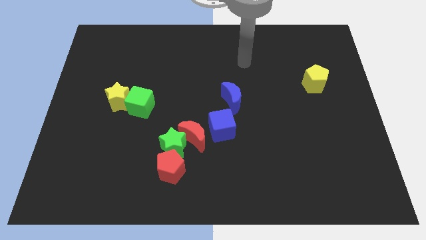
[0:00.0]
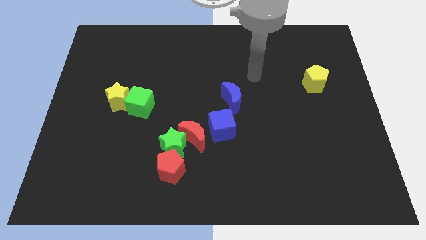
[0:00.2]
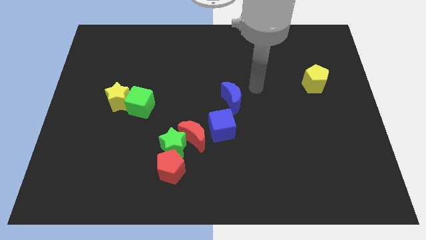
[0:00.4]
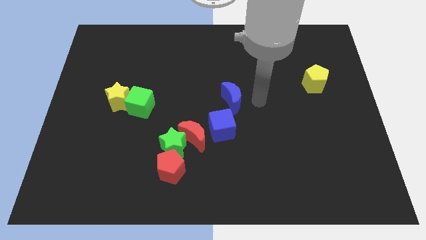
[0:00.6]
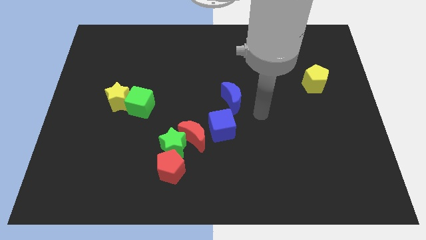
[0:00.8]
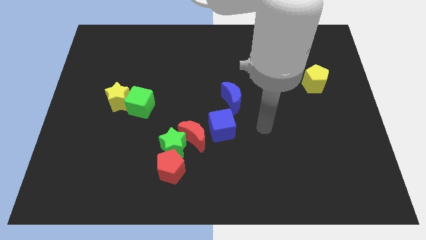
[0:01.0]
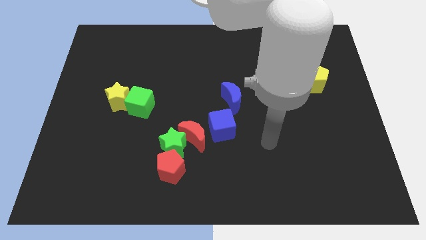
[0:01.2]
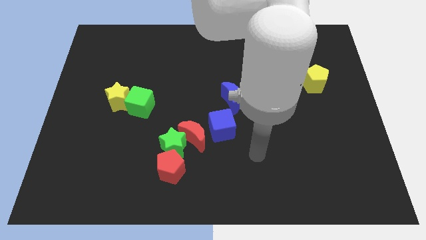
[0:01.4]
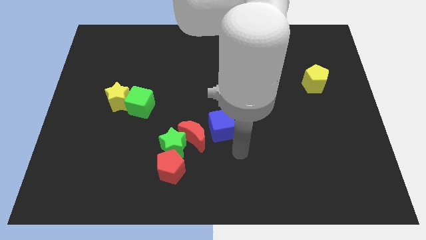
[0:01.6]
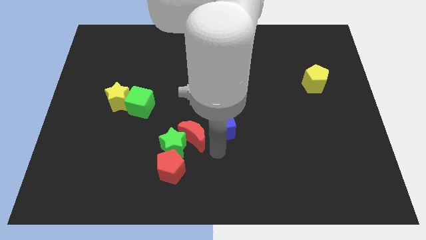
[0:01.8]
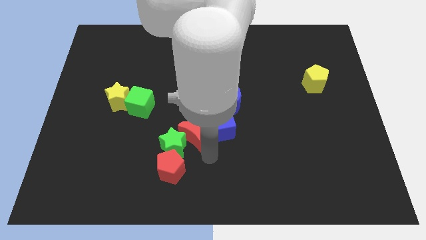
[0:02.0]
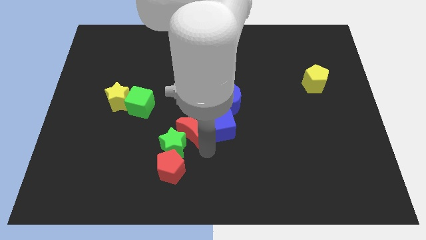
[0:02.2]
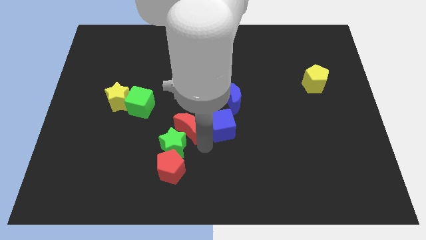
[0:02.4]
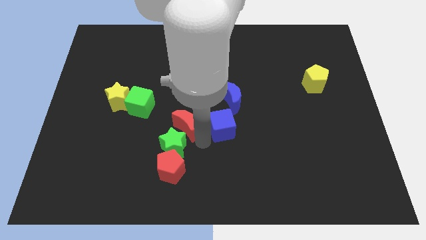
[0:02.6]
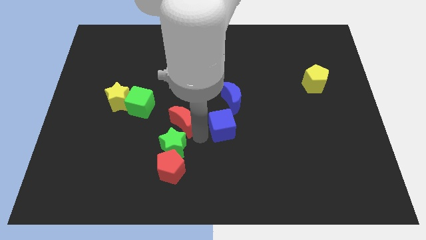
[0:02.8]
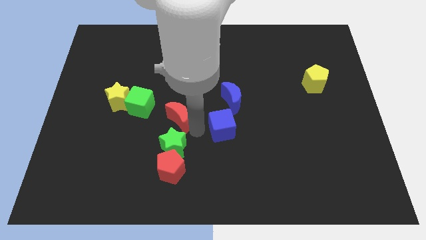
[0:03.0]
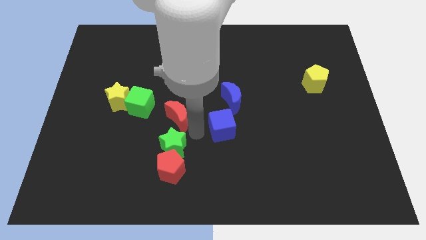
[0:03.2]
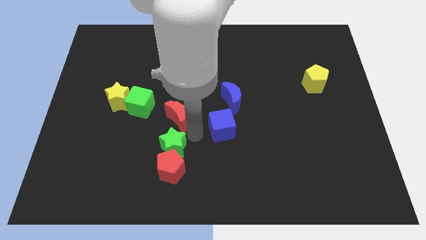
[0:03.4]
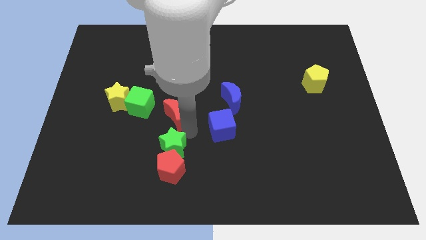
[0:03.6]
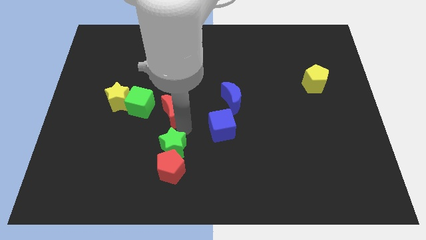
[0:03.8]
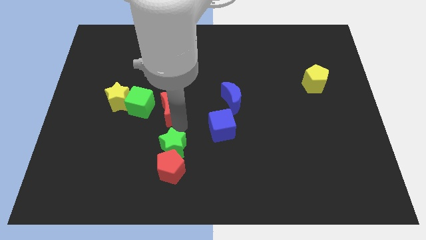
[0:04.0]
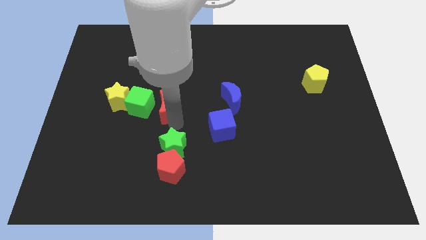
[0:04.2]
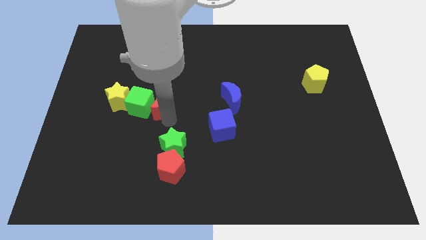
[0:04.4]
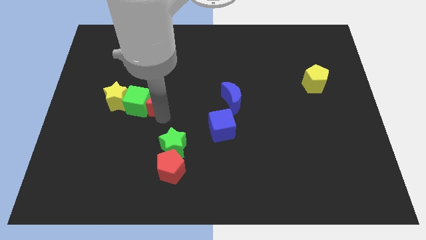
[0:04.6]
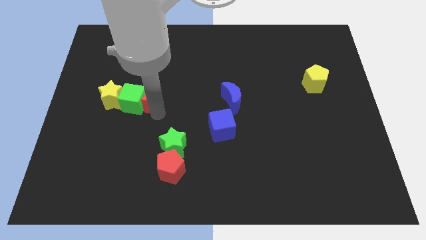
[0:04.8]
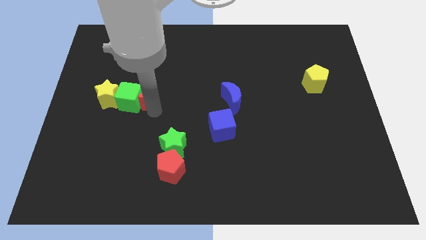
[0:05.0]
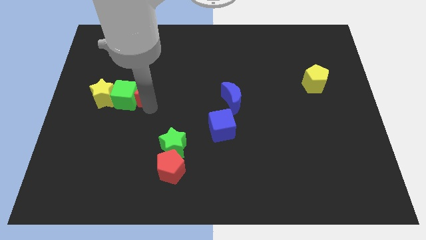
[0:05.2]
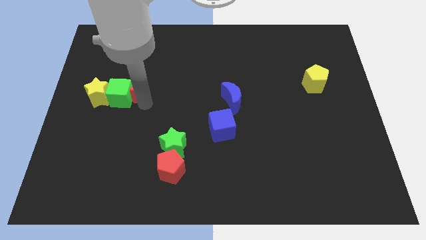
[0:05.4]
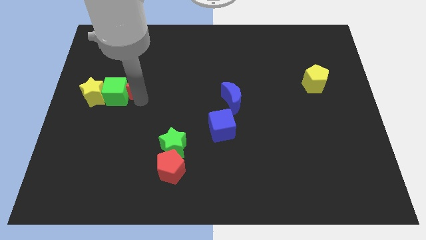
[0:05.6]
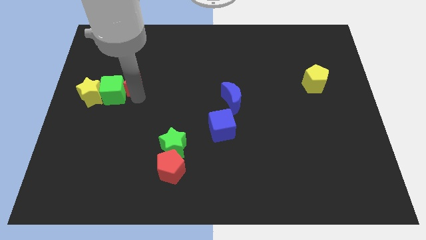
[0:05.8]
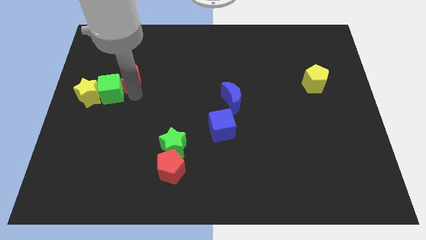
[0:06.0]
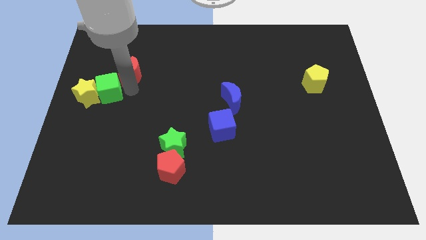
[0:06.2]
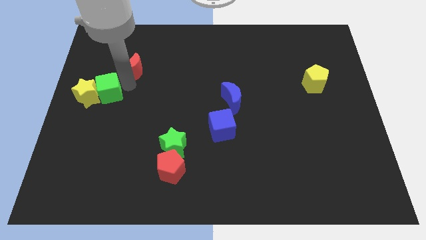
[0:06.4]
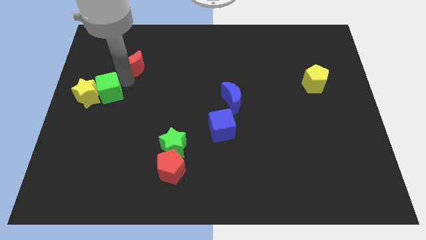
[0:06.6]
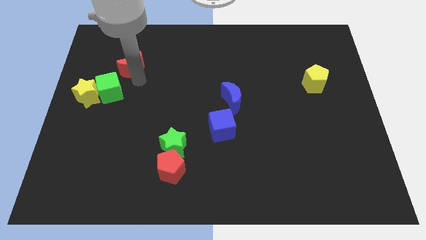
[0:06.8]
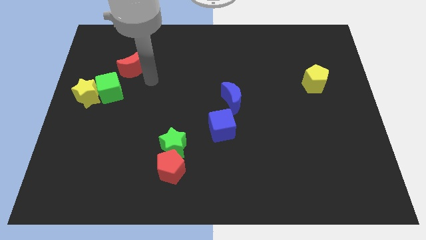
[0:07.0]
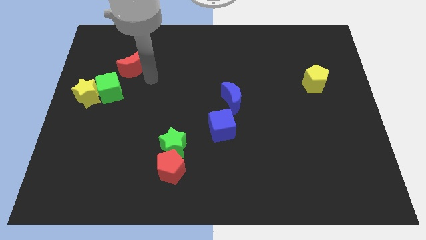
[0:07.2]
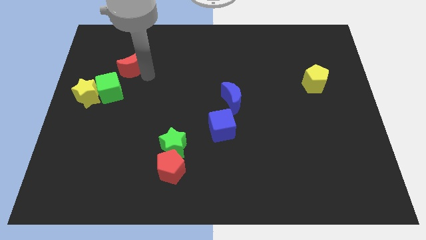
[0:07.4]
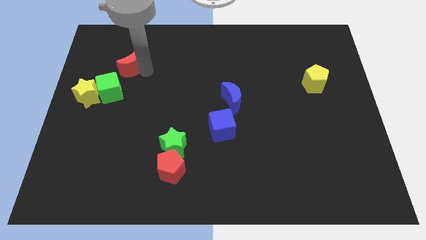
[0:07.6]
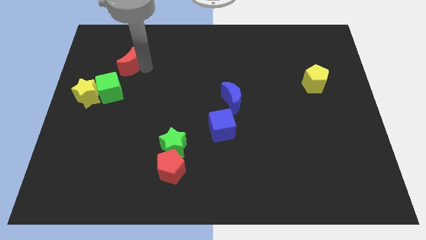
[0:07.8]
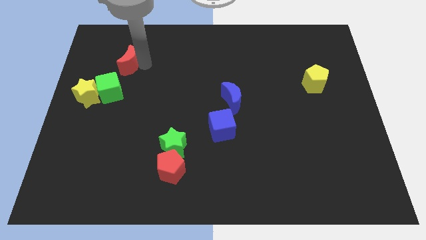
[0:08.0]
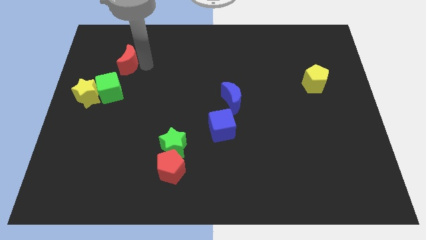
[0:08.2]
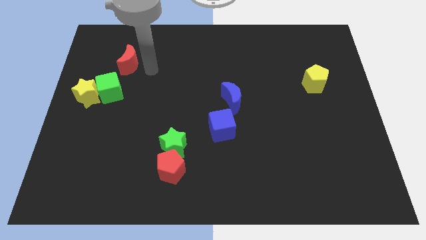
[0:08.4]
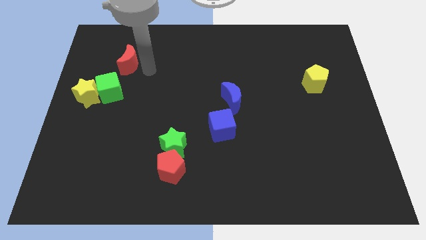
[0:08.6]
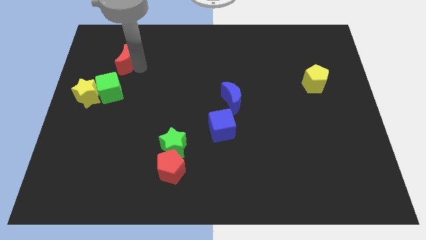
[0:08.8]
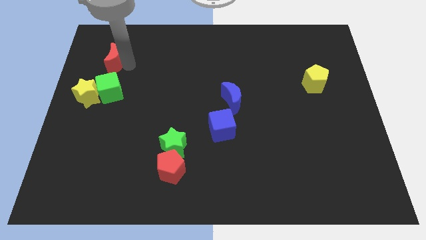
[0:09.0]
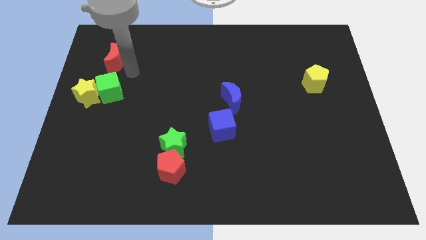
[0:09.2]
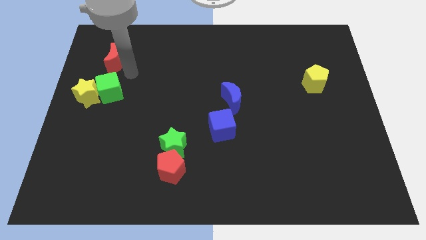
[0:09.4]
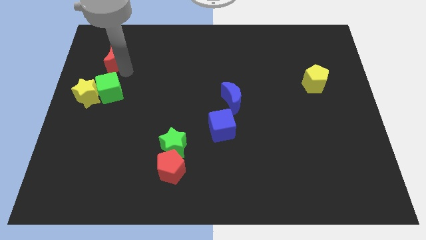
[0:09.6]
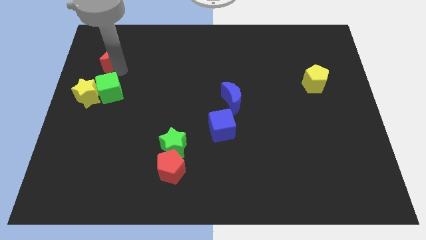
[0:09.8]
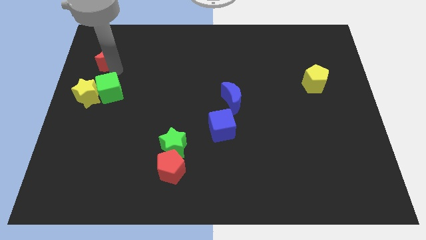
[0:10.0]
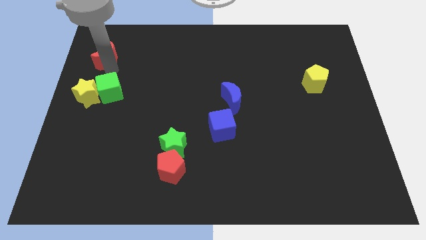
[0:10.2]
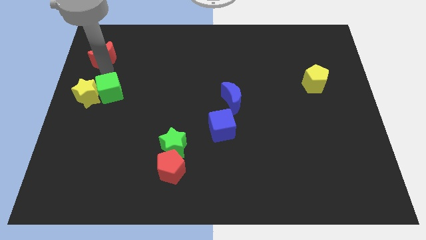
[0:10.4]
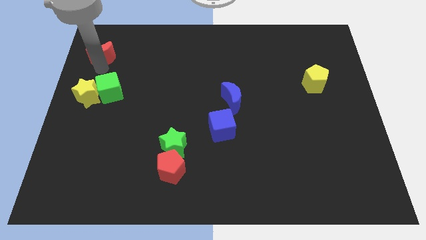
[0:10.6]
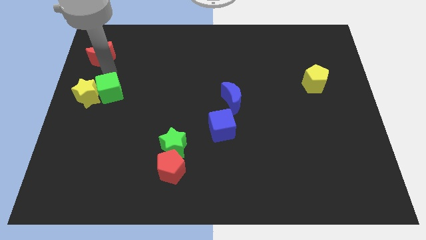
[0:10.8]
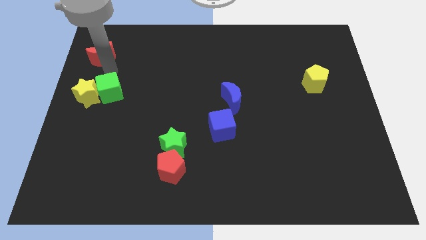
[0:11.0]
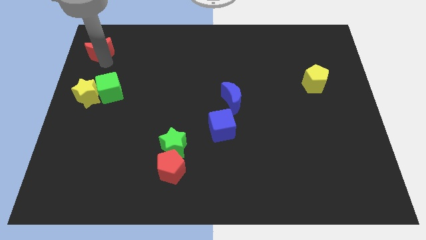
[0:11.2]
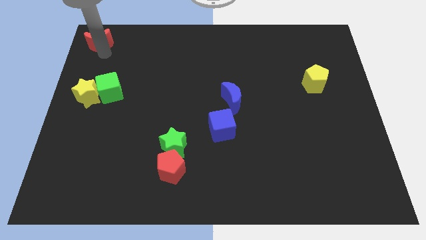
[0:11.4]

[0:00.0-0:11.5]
move the red moon to the upper left corner
